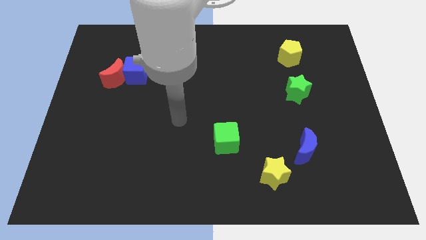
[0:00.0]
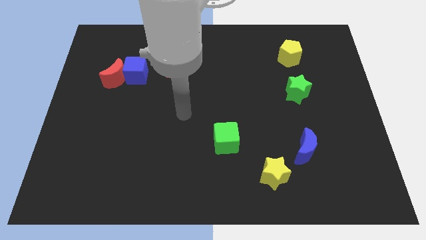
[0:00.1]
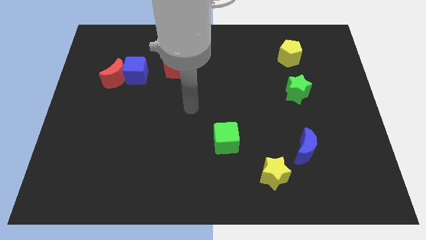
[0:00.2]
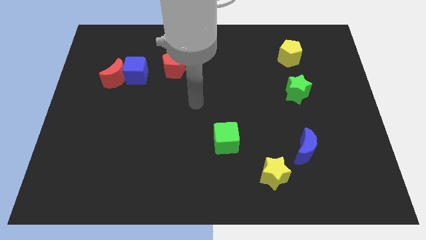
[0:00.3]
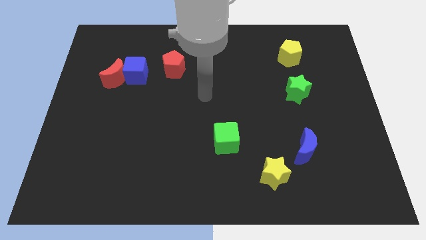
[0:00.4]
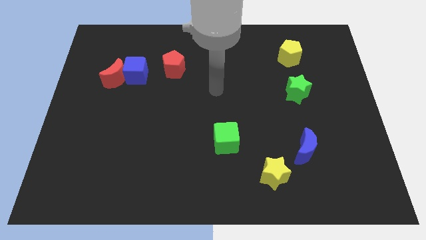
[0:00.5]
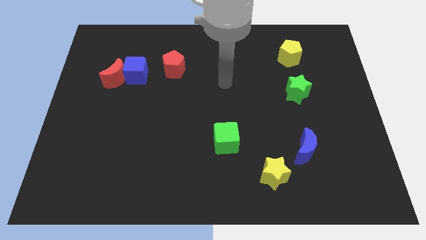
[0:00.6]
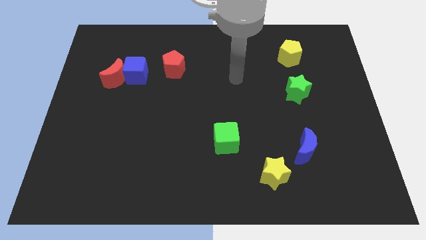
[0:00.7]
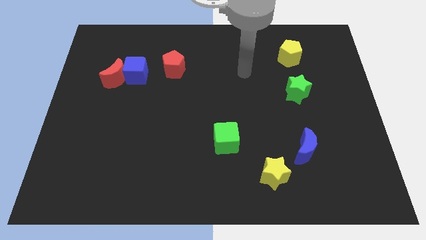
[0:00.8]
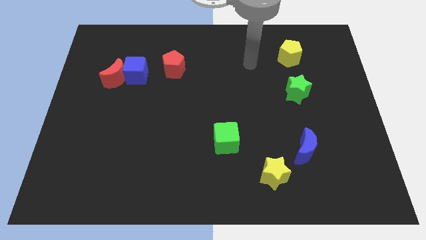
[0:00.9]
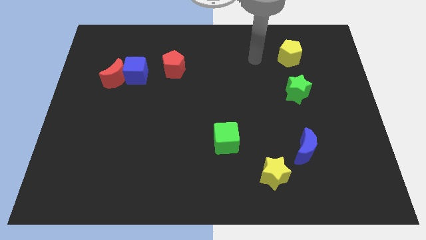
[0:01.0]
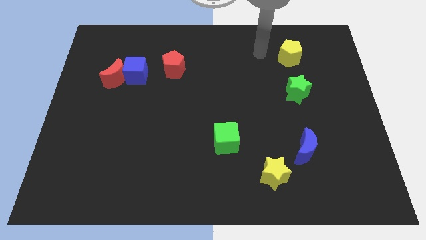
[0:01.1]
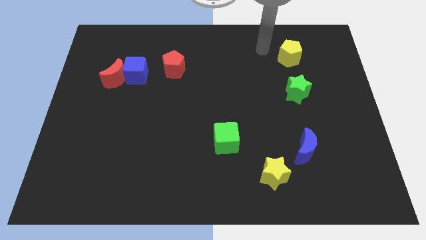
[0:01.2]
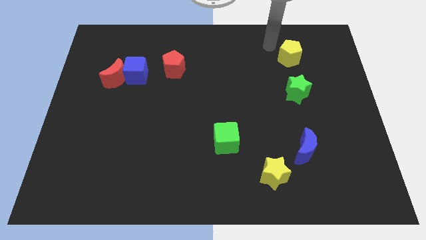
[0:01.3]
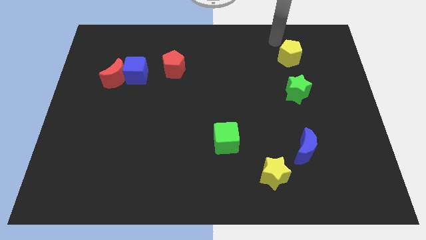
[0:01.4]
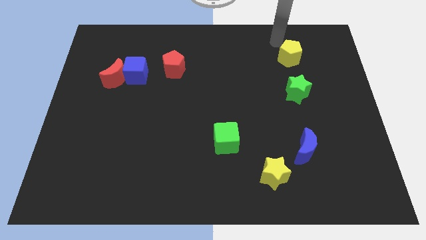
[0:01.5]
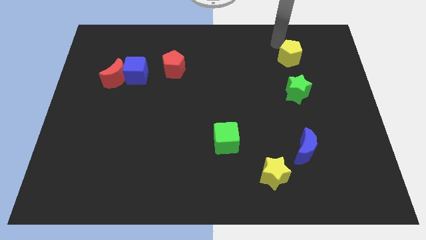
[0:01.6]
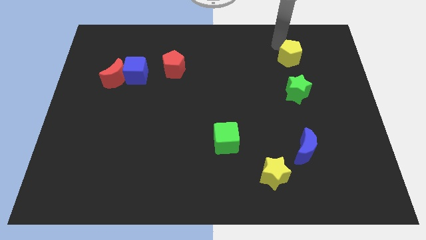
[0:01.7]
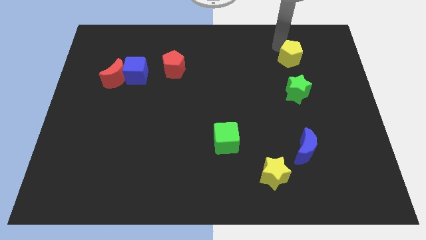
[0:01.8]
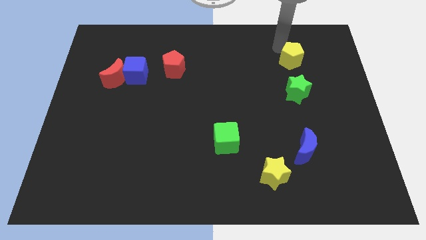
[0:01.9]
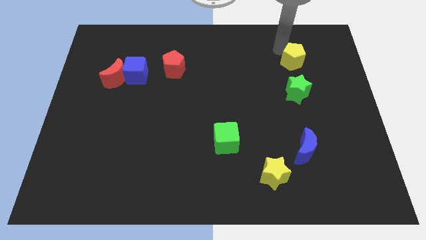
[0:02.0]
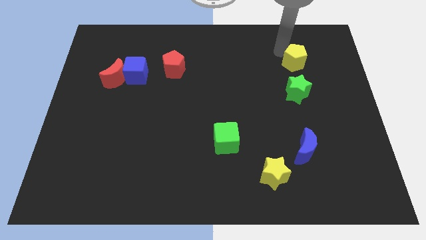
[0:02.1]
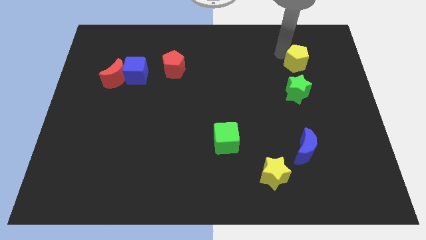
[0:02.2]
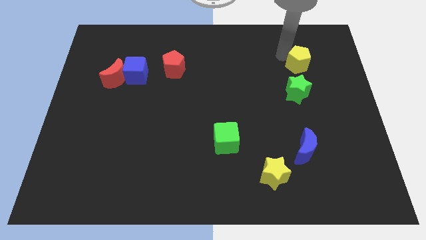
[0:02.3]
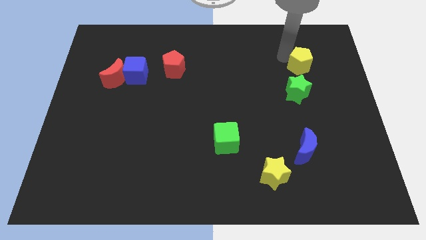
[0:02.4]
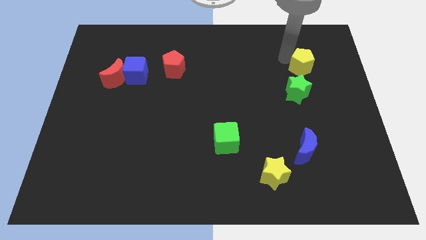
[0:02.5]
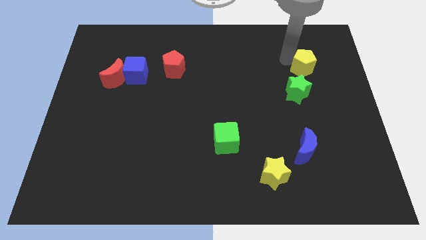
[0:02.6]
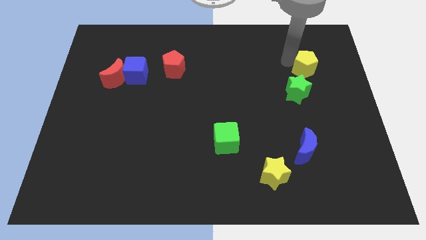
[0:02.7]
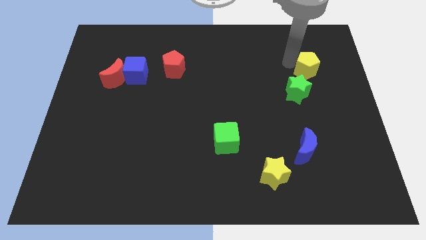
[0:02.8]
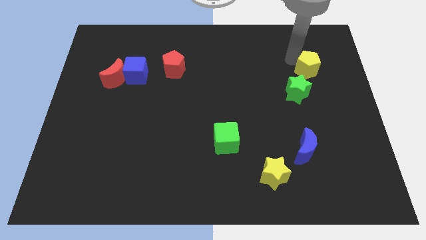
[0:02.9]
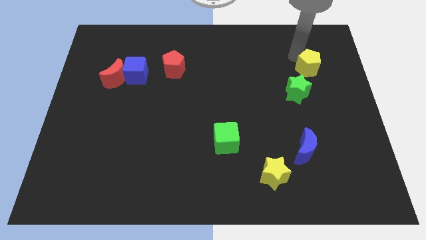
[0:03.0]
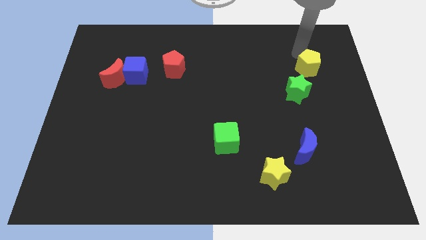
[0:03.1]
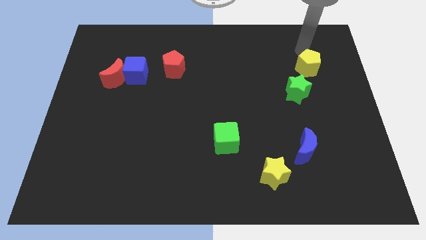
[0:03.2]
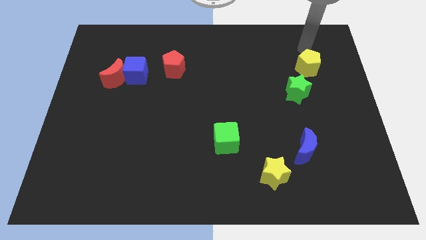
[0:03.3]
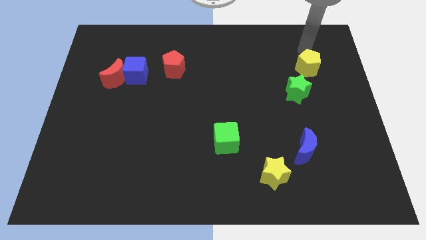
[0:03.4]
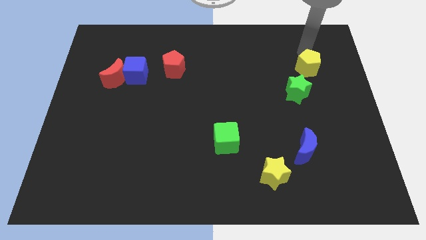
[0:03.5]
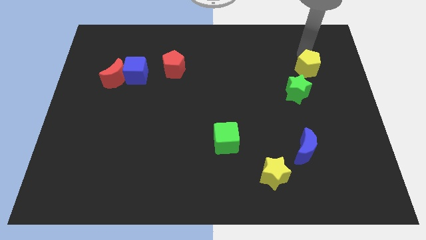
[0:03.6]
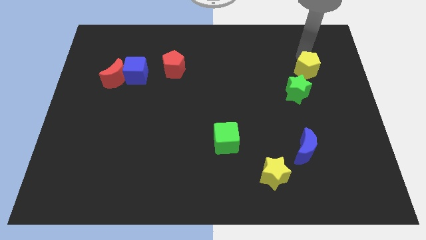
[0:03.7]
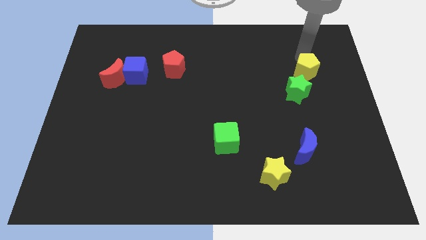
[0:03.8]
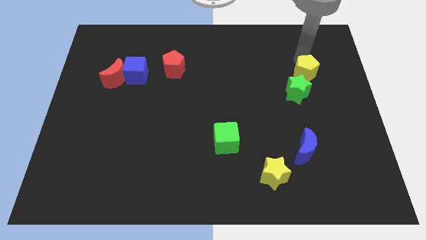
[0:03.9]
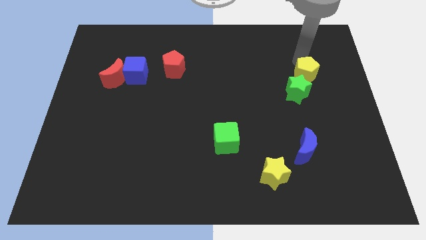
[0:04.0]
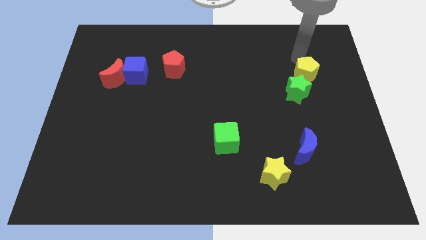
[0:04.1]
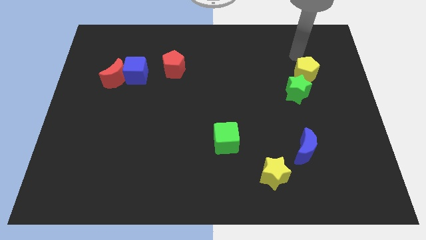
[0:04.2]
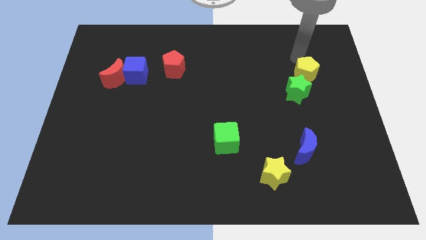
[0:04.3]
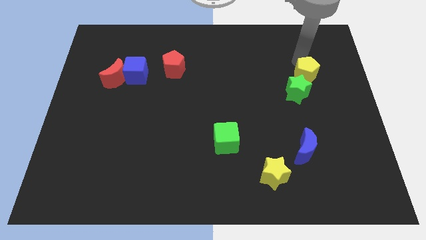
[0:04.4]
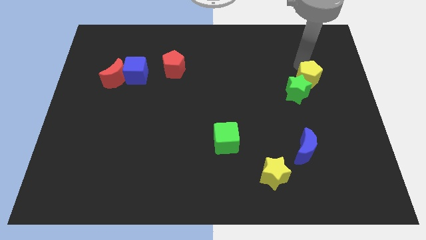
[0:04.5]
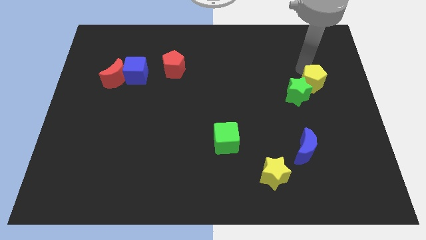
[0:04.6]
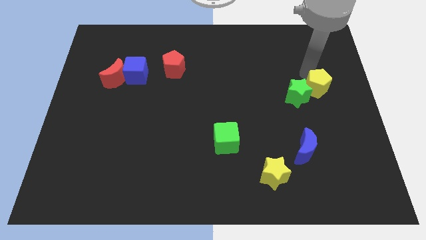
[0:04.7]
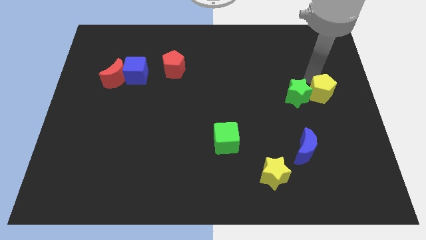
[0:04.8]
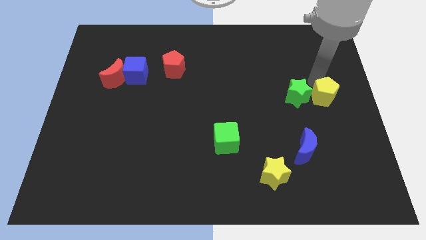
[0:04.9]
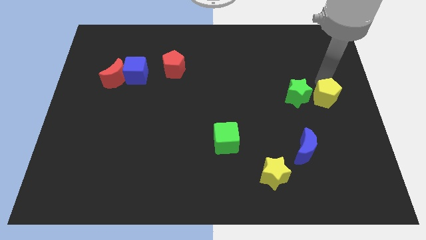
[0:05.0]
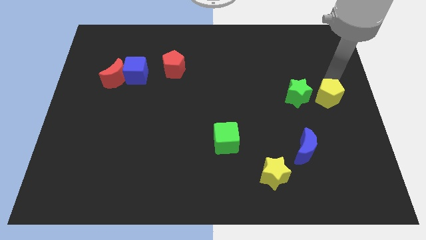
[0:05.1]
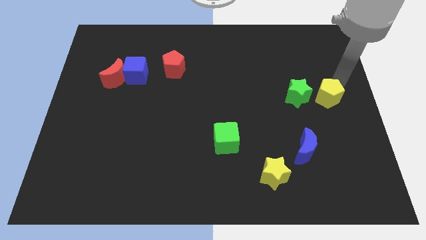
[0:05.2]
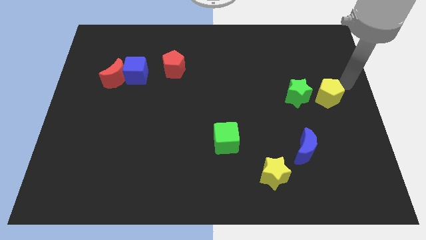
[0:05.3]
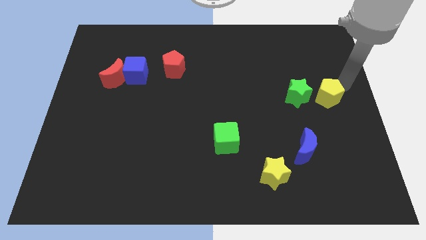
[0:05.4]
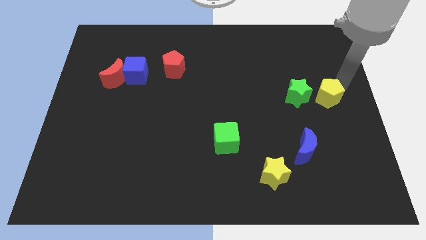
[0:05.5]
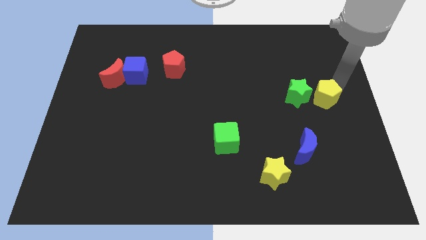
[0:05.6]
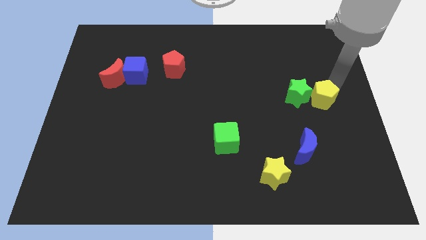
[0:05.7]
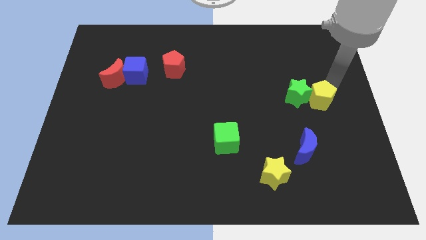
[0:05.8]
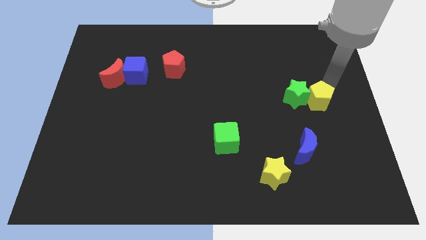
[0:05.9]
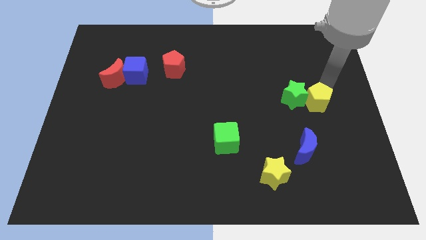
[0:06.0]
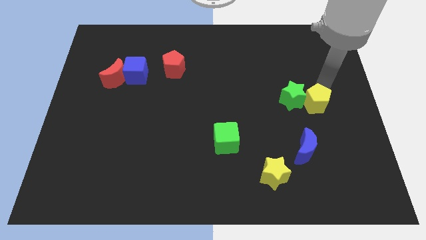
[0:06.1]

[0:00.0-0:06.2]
move the yellow pentagon above the blue moon

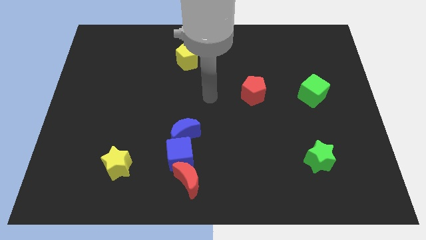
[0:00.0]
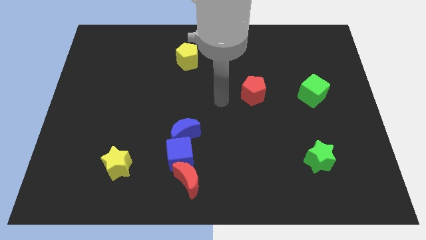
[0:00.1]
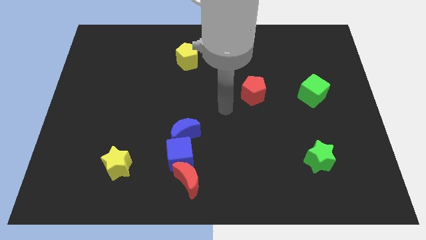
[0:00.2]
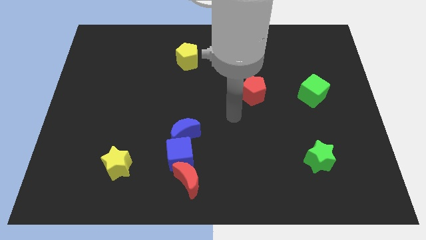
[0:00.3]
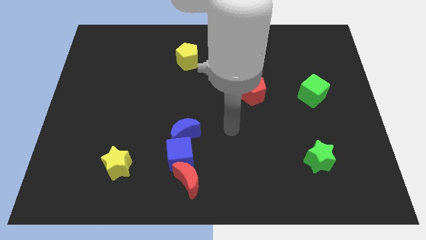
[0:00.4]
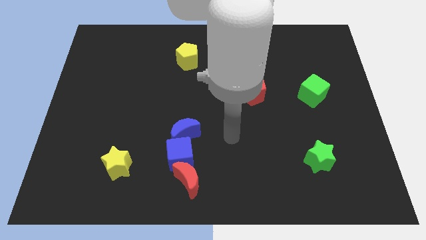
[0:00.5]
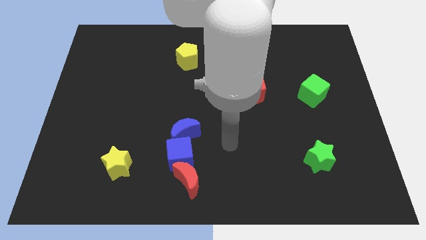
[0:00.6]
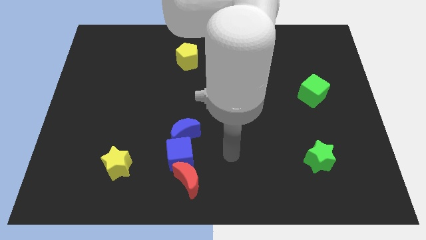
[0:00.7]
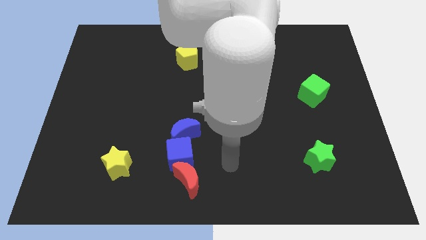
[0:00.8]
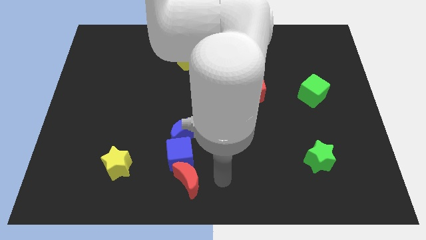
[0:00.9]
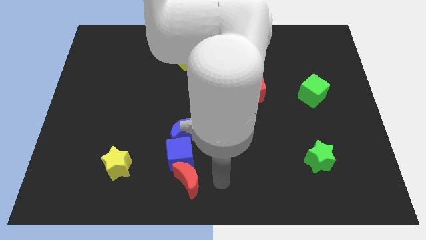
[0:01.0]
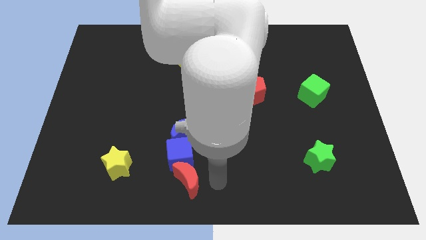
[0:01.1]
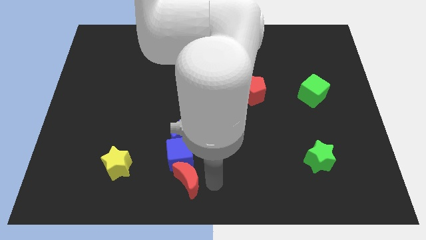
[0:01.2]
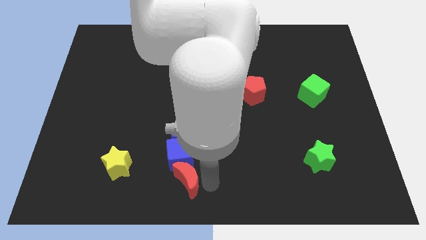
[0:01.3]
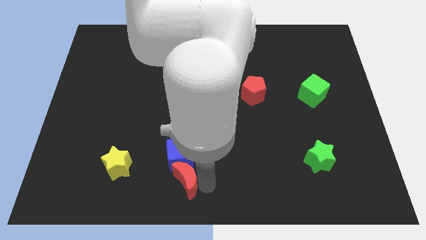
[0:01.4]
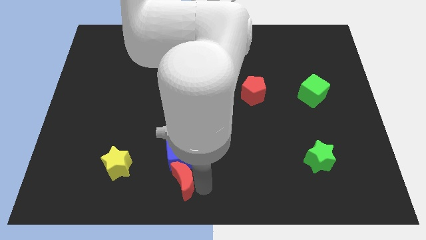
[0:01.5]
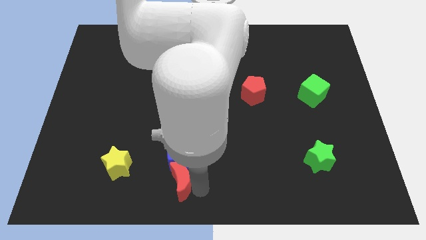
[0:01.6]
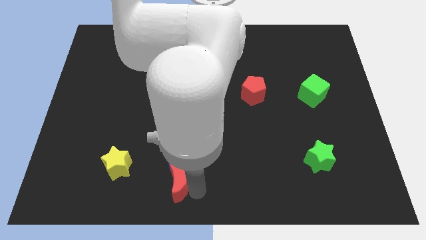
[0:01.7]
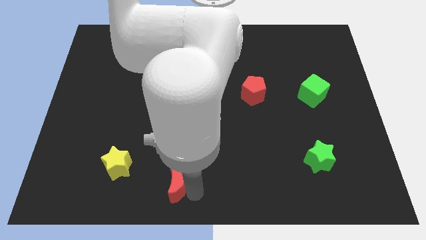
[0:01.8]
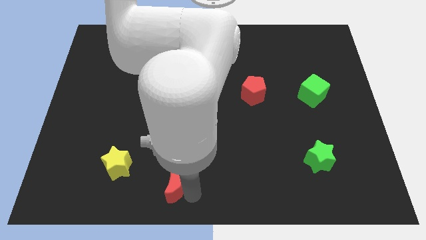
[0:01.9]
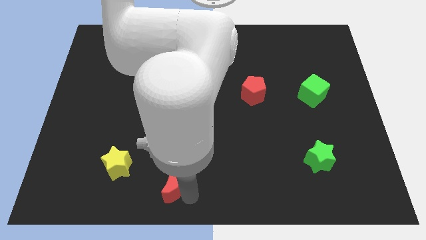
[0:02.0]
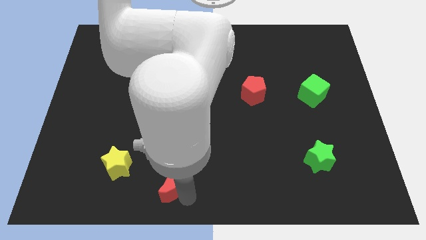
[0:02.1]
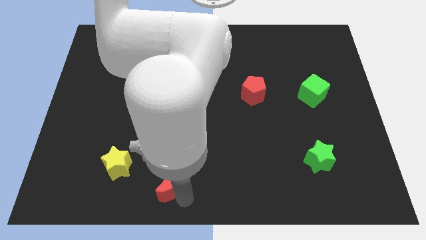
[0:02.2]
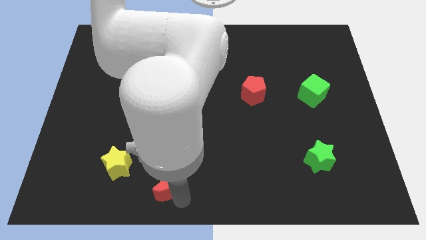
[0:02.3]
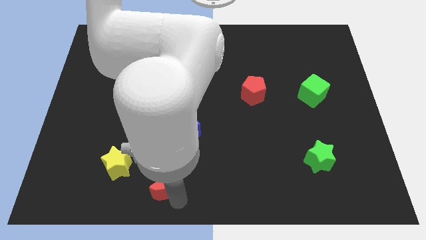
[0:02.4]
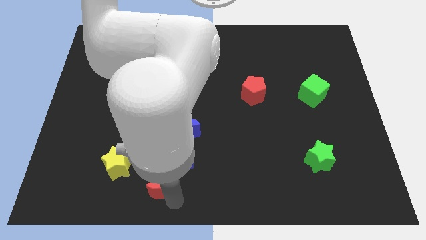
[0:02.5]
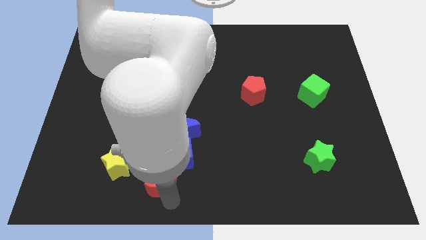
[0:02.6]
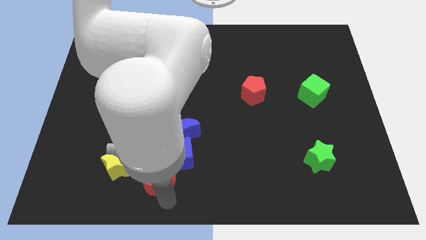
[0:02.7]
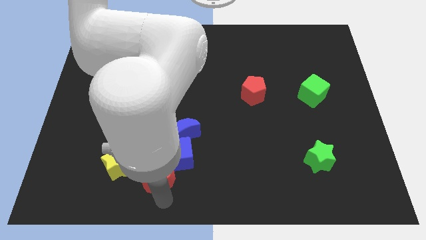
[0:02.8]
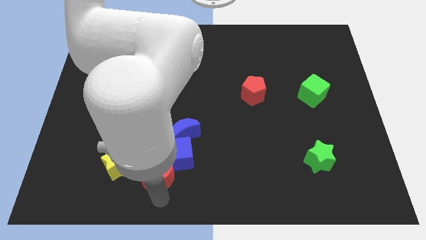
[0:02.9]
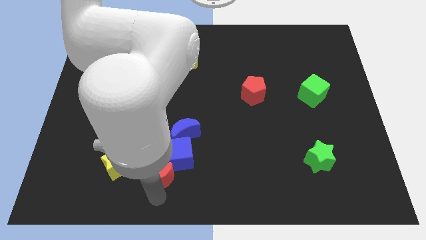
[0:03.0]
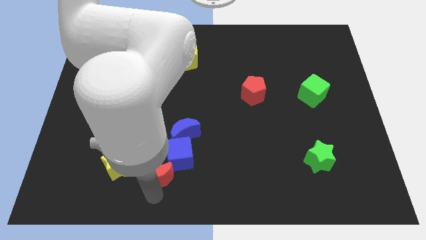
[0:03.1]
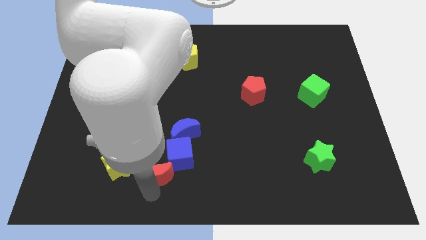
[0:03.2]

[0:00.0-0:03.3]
slide the red moon to the bottom left side of the blue moon
